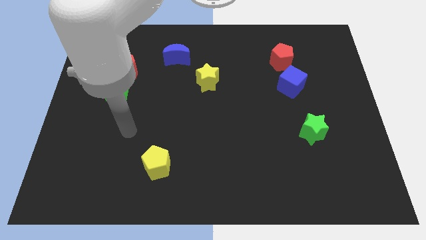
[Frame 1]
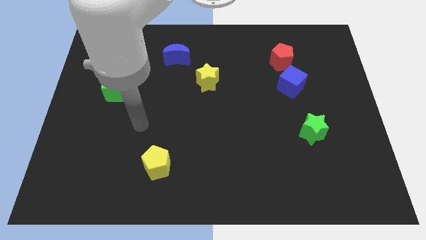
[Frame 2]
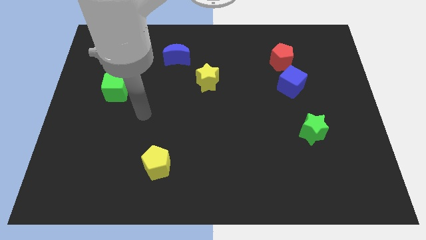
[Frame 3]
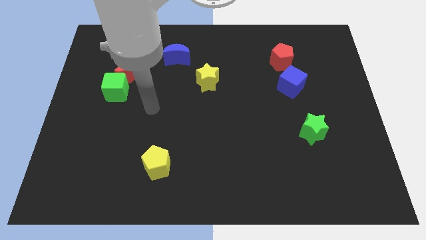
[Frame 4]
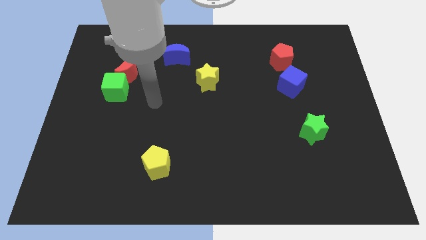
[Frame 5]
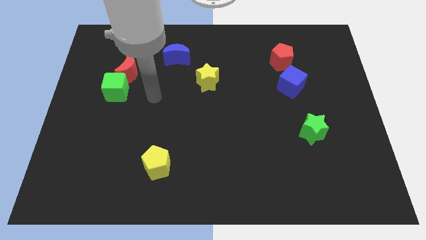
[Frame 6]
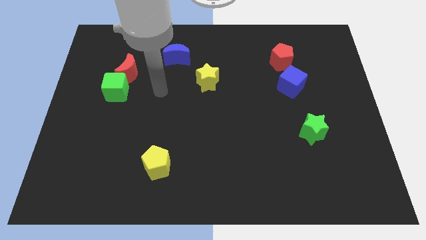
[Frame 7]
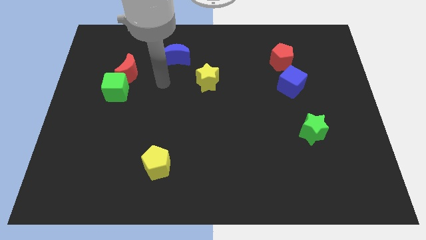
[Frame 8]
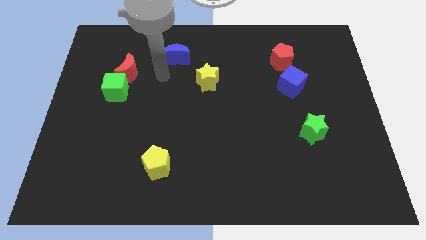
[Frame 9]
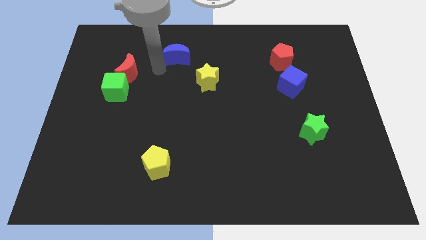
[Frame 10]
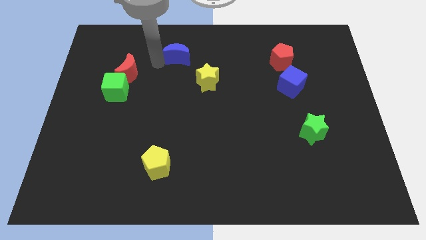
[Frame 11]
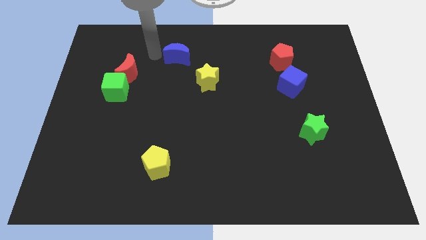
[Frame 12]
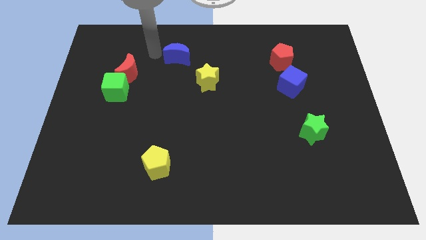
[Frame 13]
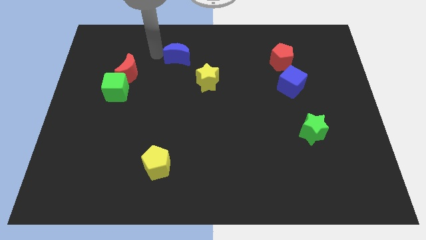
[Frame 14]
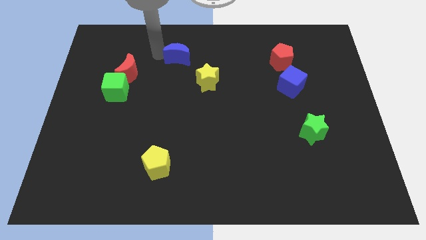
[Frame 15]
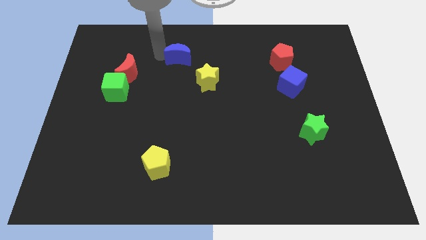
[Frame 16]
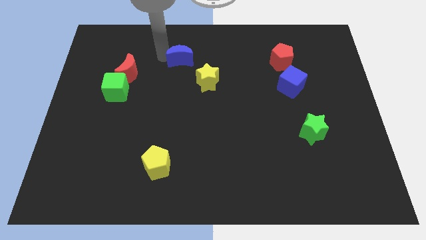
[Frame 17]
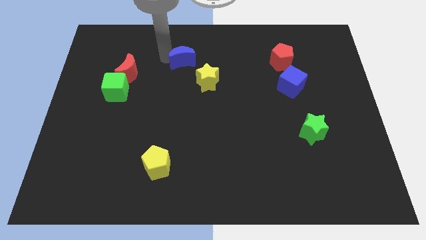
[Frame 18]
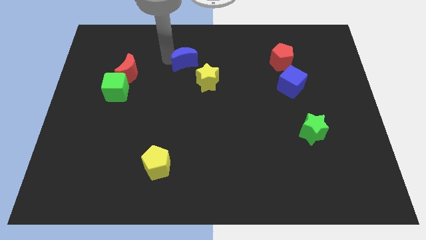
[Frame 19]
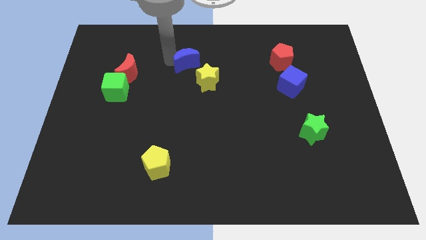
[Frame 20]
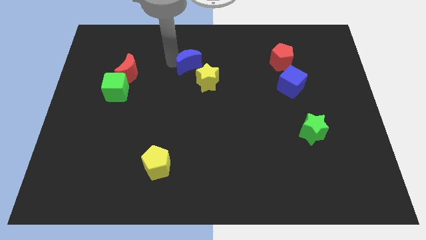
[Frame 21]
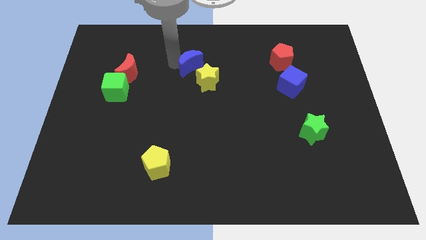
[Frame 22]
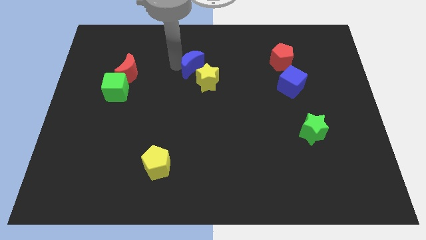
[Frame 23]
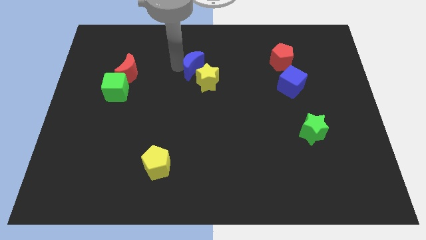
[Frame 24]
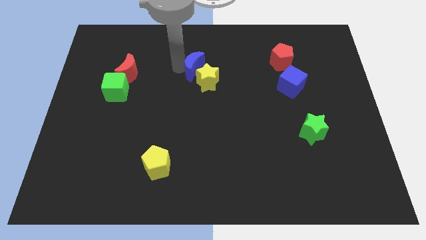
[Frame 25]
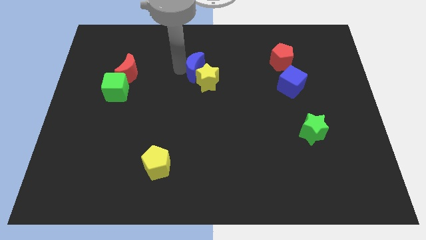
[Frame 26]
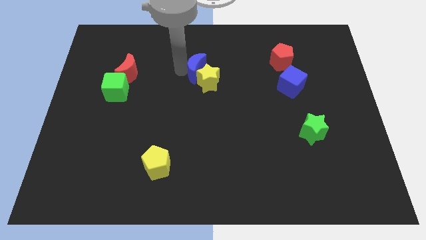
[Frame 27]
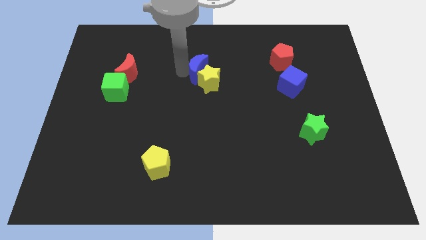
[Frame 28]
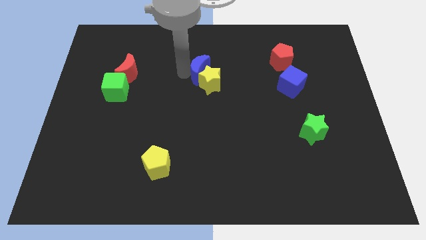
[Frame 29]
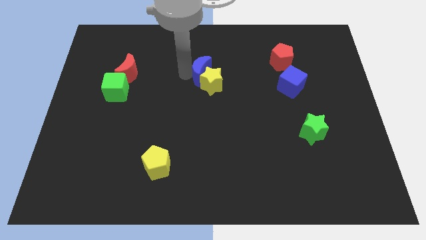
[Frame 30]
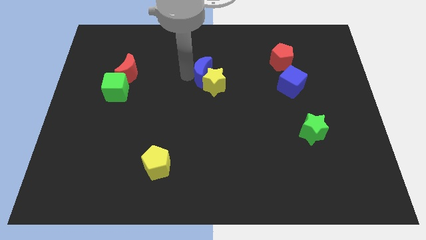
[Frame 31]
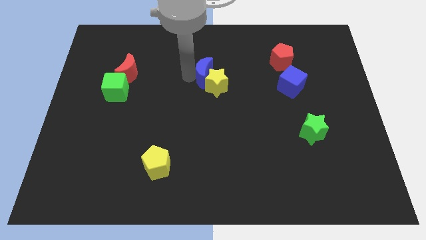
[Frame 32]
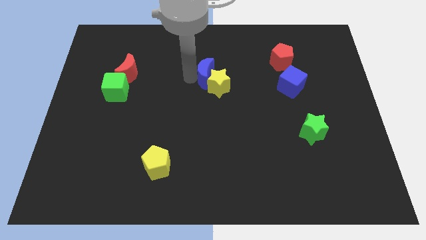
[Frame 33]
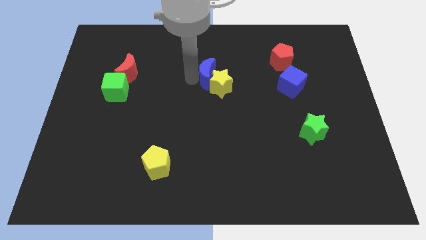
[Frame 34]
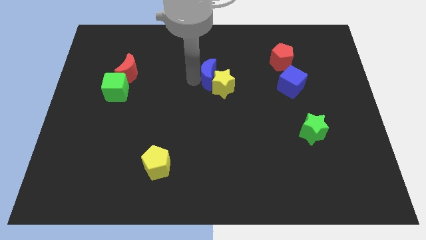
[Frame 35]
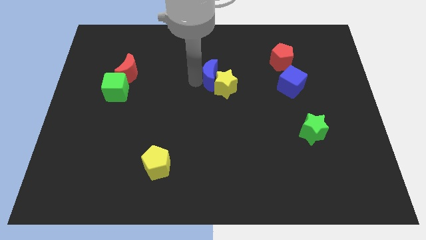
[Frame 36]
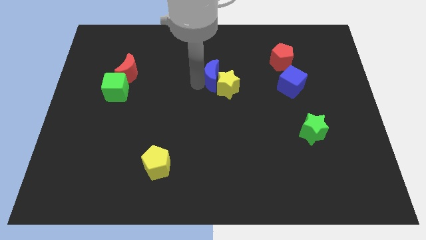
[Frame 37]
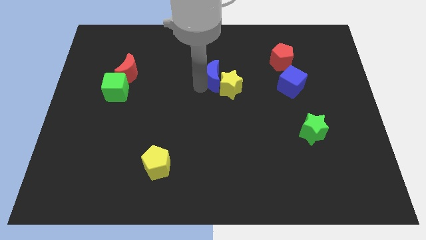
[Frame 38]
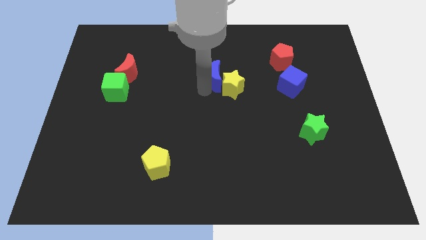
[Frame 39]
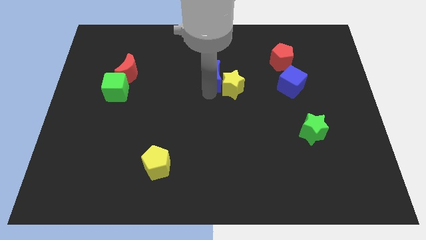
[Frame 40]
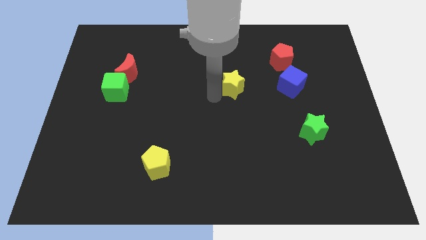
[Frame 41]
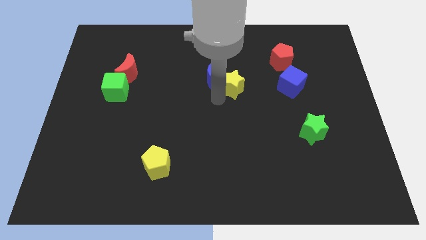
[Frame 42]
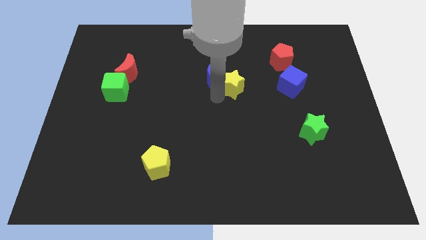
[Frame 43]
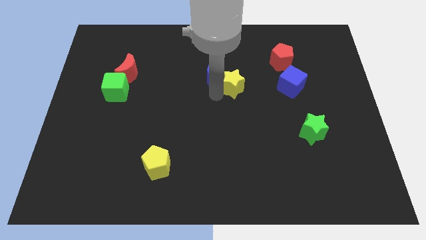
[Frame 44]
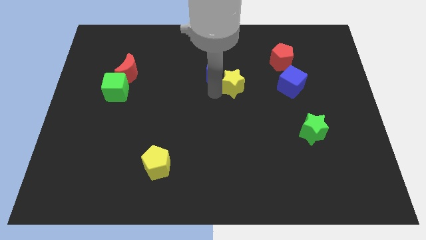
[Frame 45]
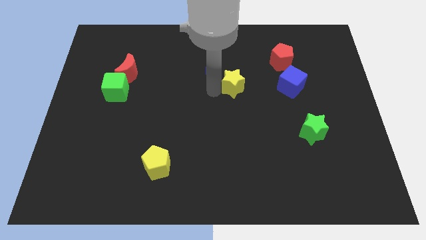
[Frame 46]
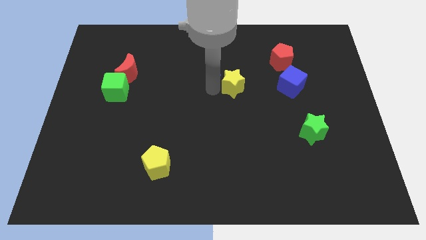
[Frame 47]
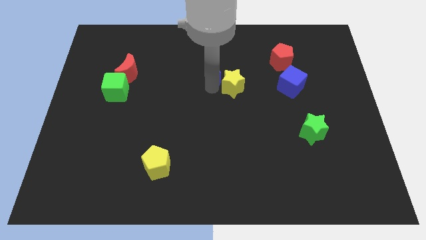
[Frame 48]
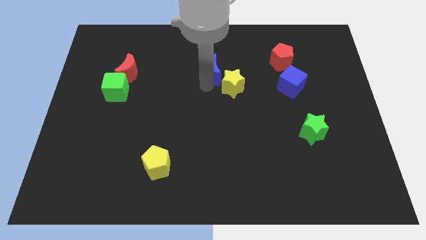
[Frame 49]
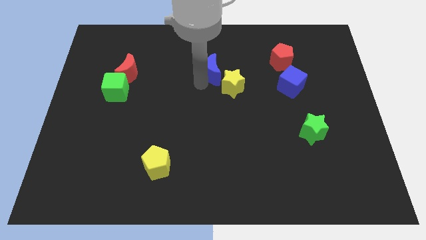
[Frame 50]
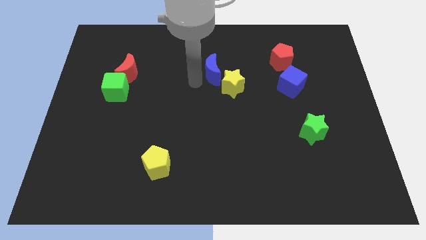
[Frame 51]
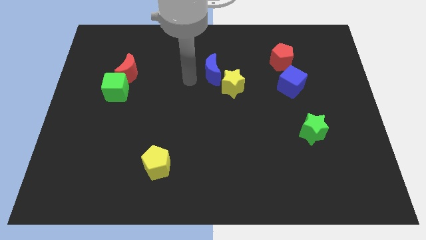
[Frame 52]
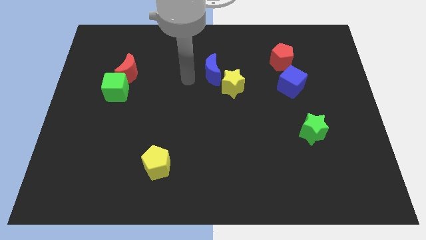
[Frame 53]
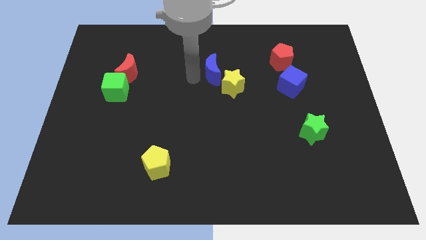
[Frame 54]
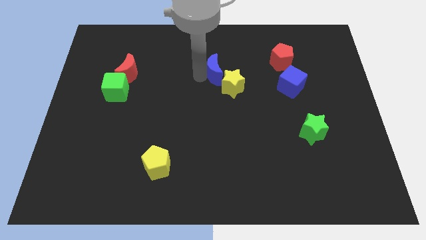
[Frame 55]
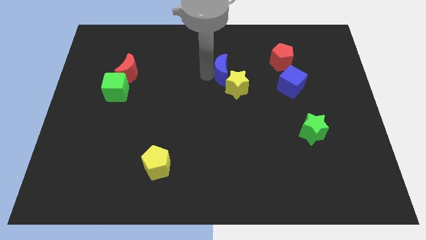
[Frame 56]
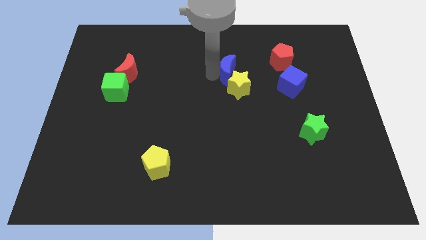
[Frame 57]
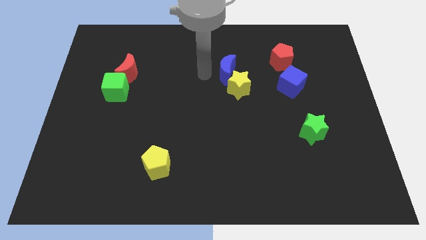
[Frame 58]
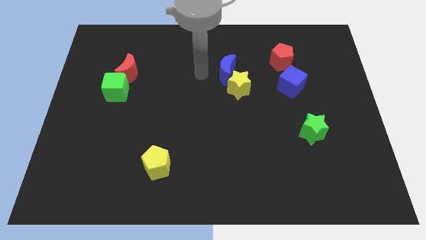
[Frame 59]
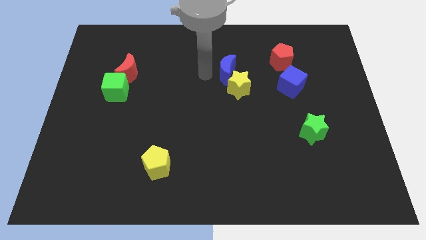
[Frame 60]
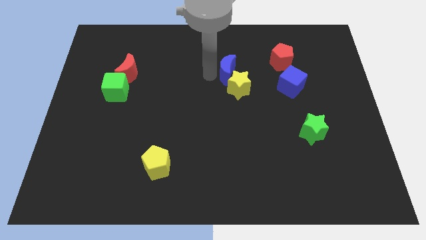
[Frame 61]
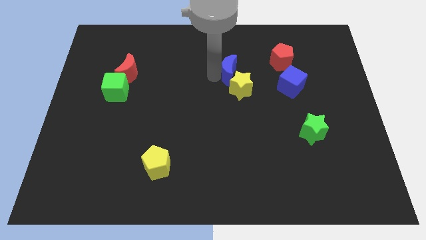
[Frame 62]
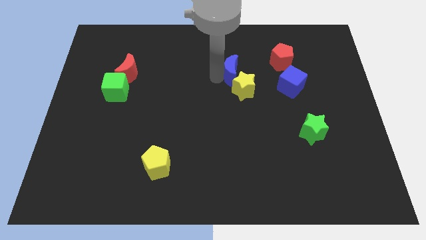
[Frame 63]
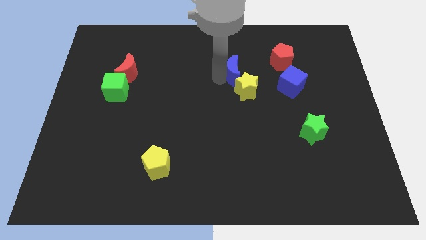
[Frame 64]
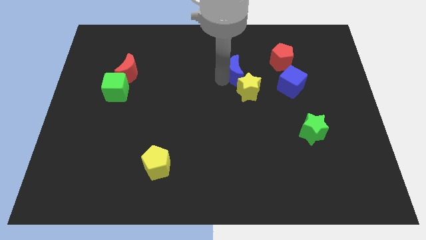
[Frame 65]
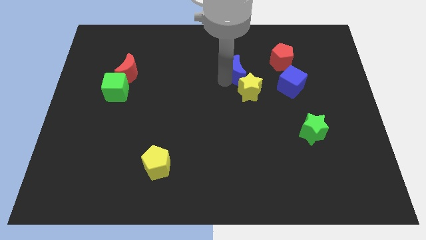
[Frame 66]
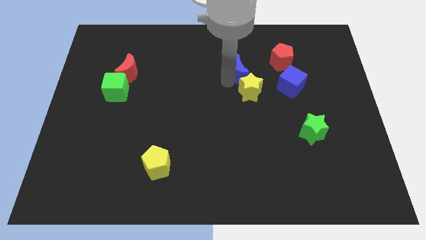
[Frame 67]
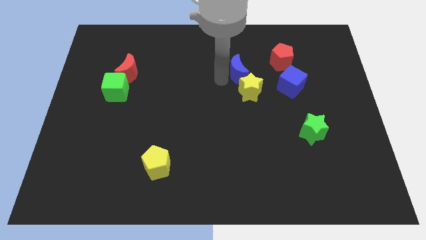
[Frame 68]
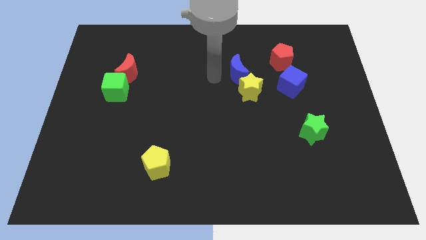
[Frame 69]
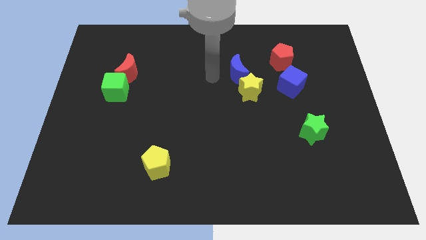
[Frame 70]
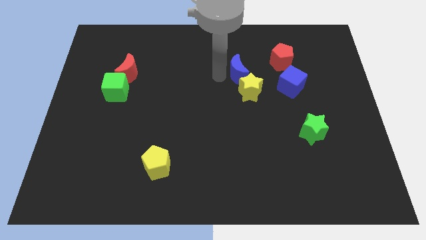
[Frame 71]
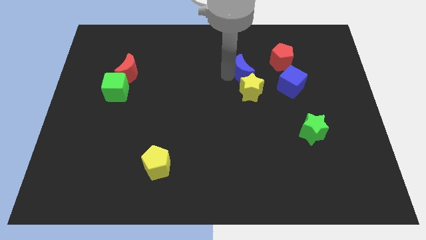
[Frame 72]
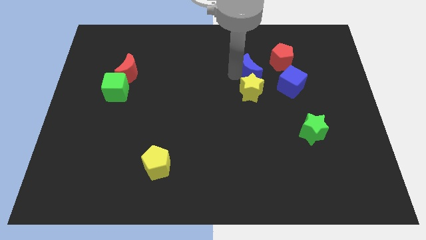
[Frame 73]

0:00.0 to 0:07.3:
push the blue moon to the top left side of the blue cube

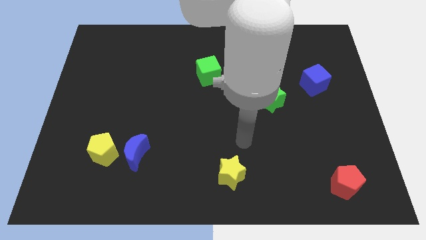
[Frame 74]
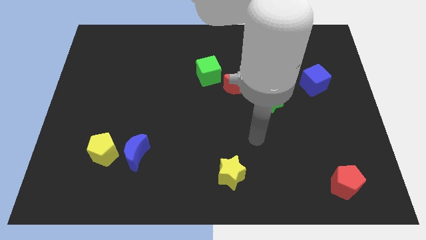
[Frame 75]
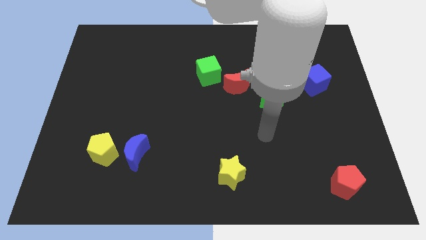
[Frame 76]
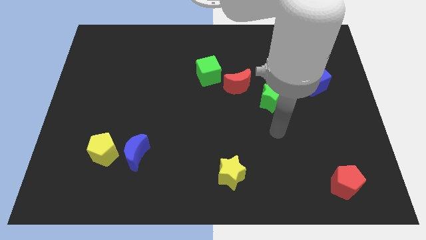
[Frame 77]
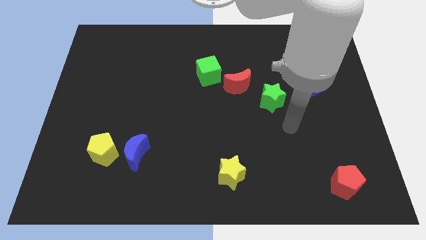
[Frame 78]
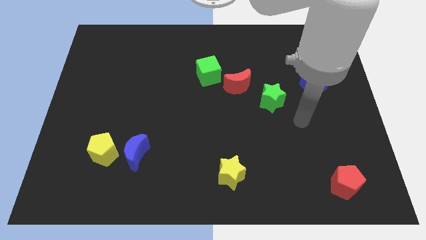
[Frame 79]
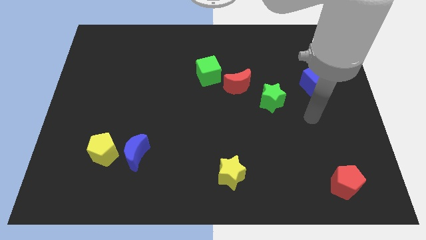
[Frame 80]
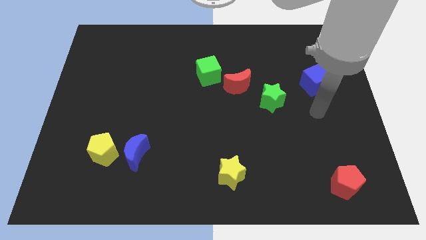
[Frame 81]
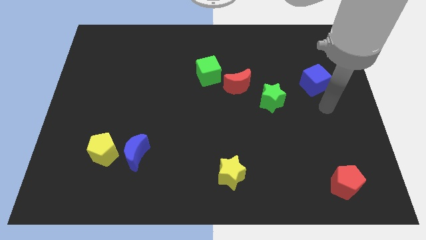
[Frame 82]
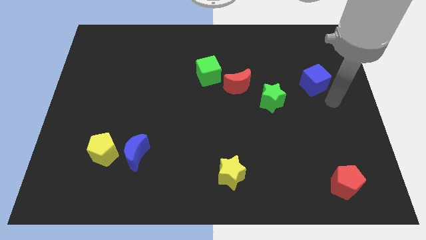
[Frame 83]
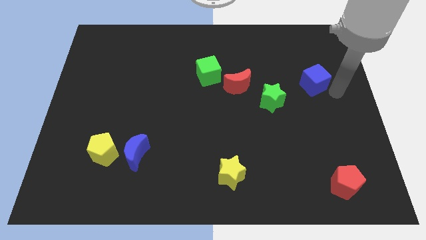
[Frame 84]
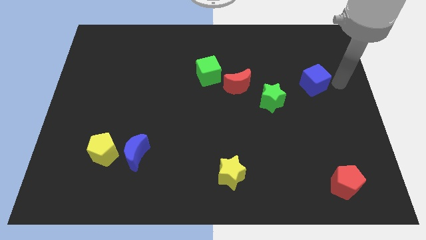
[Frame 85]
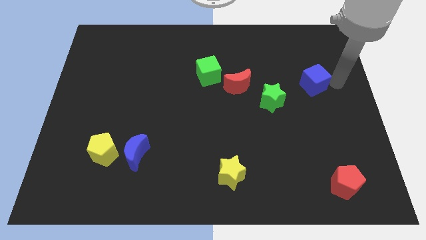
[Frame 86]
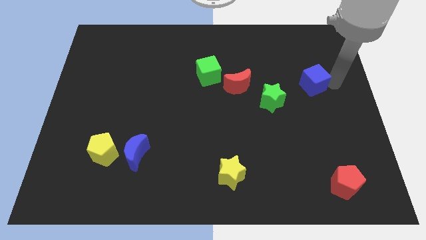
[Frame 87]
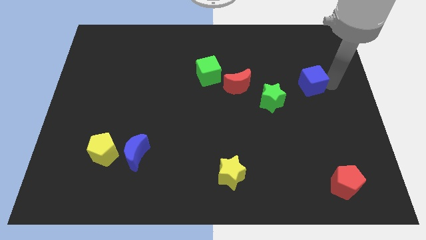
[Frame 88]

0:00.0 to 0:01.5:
move the blue cube to the top right side of the green star
